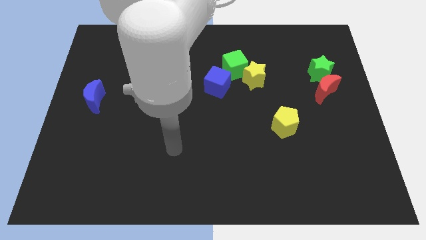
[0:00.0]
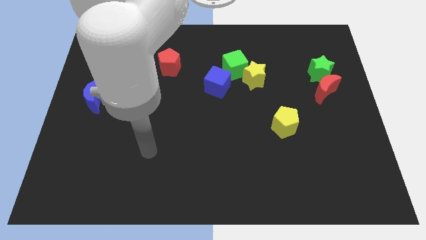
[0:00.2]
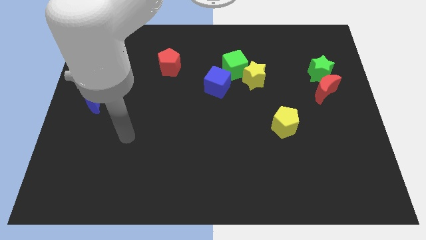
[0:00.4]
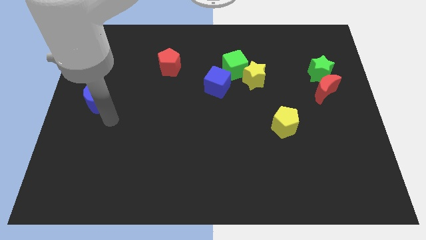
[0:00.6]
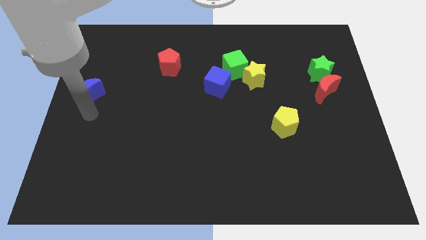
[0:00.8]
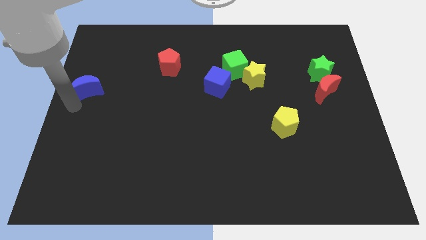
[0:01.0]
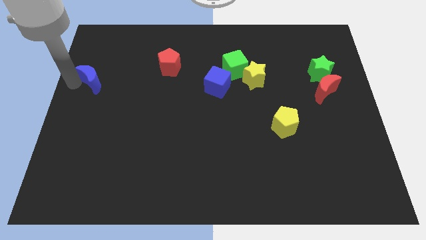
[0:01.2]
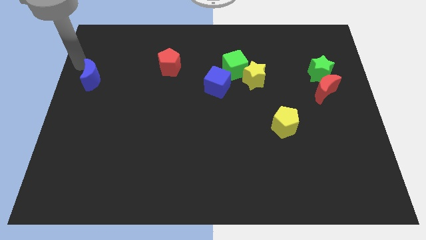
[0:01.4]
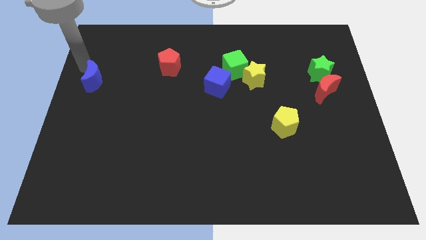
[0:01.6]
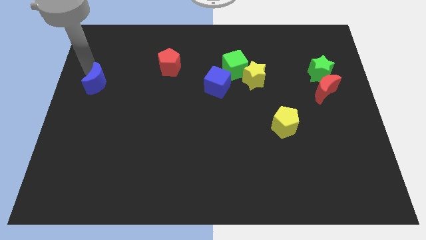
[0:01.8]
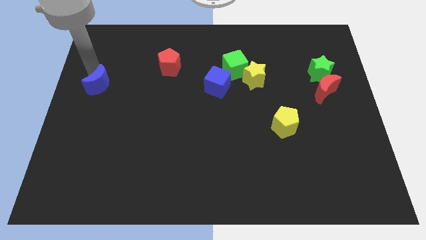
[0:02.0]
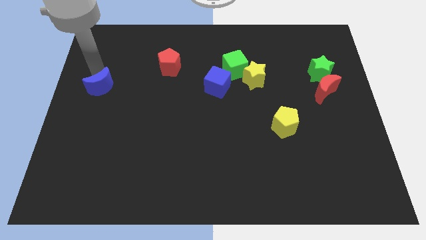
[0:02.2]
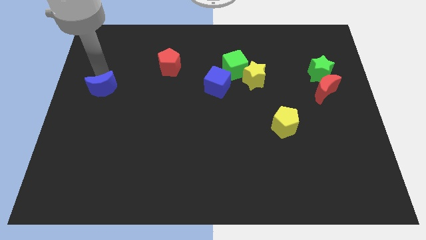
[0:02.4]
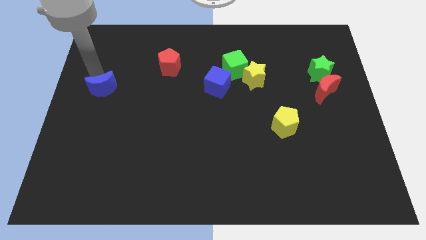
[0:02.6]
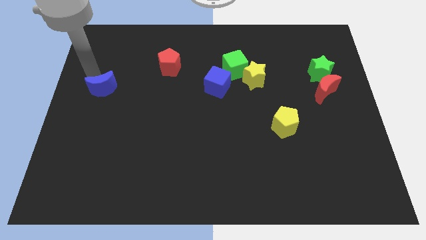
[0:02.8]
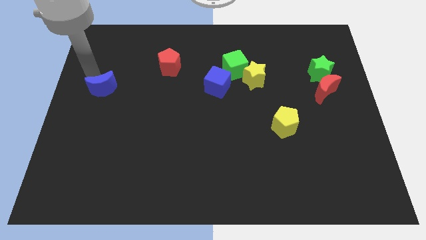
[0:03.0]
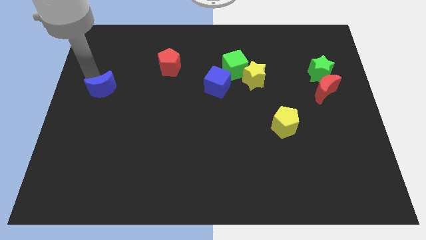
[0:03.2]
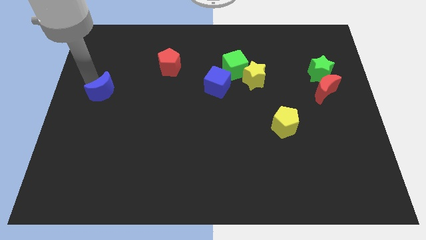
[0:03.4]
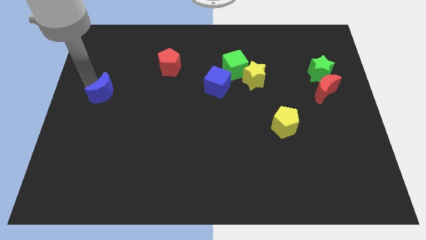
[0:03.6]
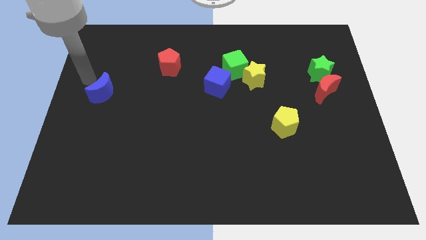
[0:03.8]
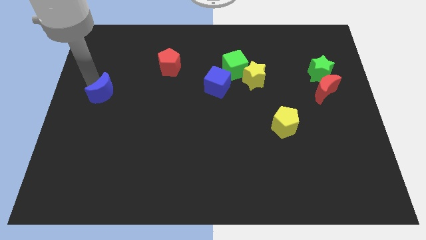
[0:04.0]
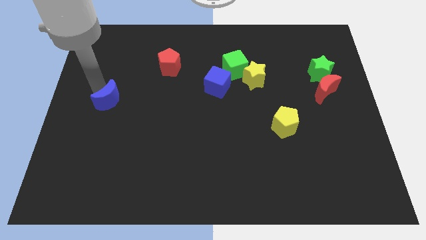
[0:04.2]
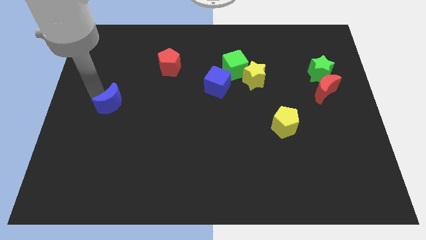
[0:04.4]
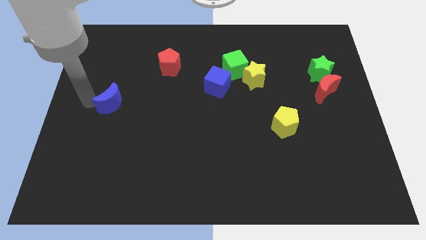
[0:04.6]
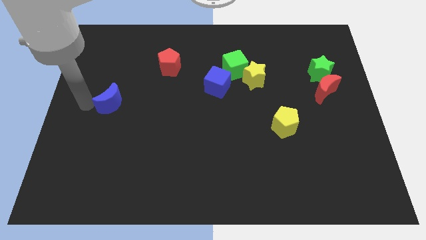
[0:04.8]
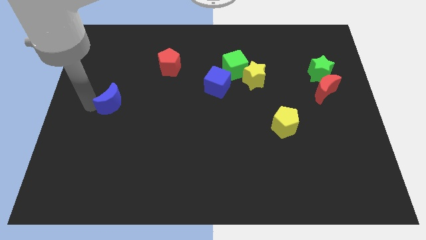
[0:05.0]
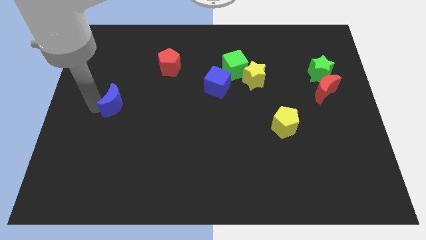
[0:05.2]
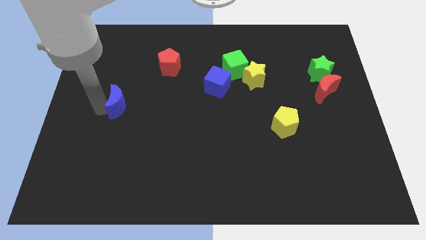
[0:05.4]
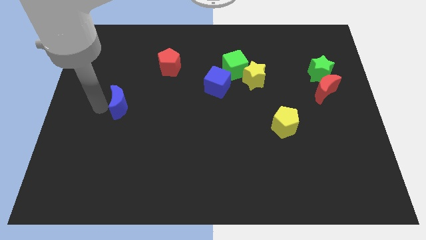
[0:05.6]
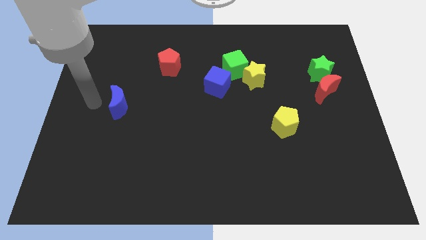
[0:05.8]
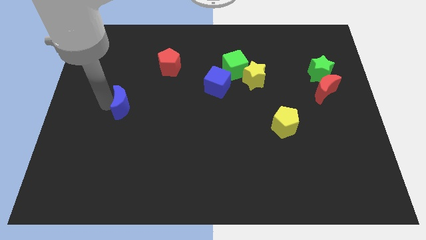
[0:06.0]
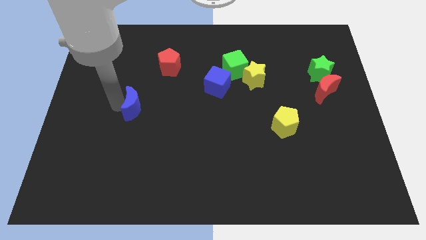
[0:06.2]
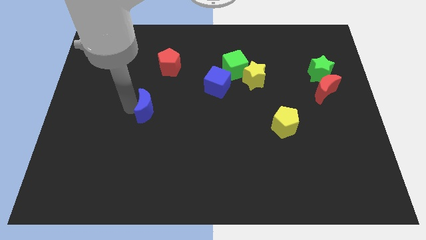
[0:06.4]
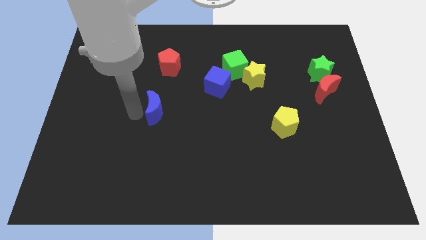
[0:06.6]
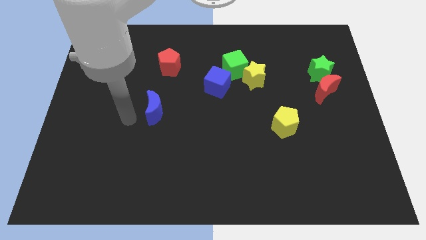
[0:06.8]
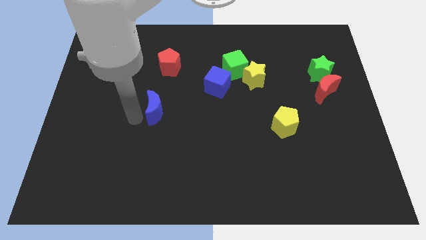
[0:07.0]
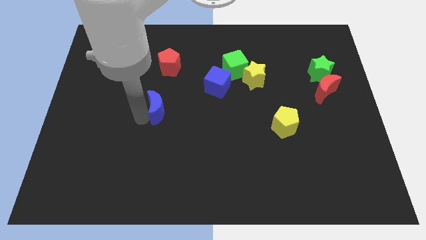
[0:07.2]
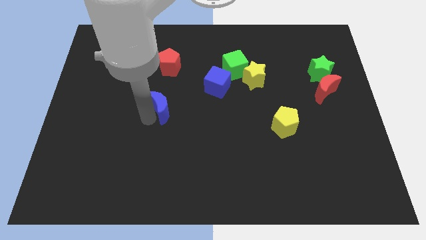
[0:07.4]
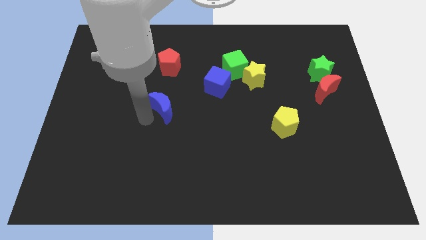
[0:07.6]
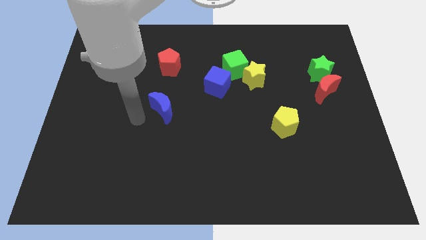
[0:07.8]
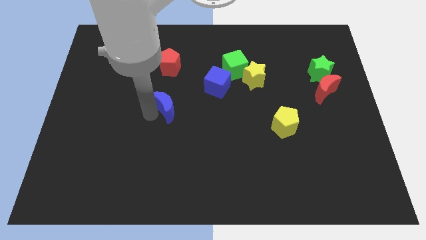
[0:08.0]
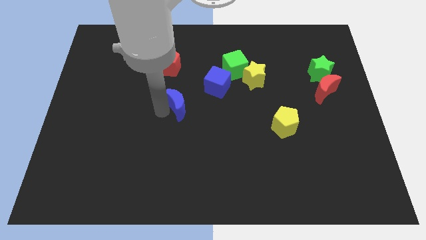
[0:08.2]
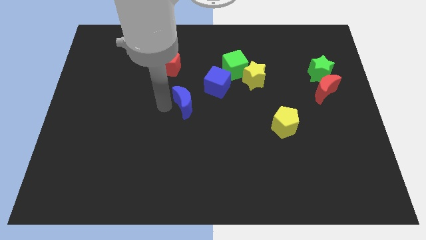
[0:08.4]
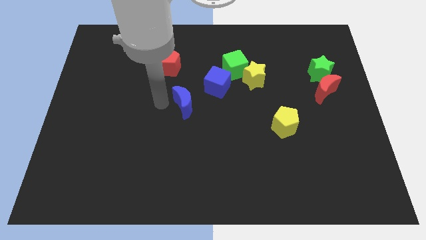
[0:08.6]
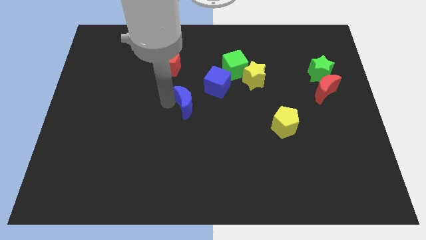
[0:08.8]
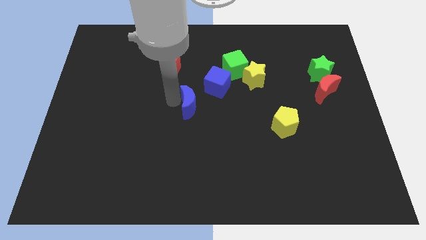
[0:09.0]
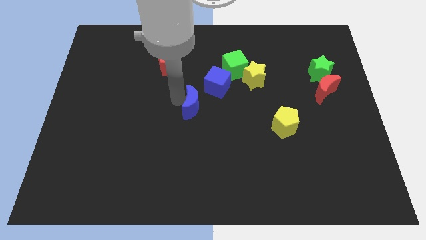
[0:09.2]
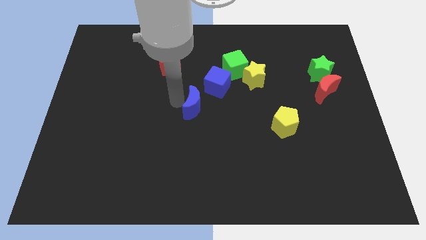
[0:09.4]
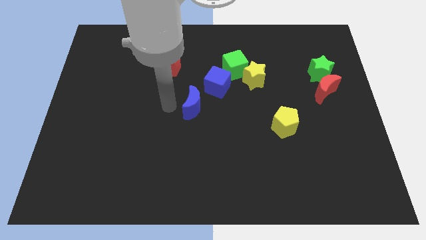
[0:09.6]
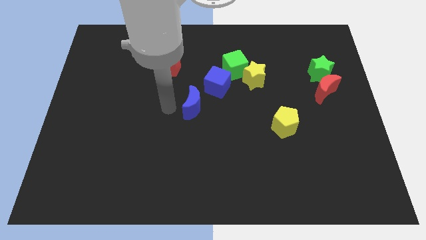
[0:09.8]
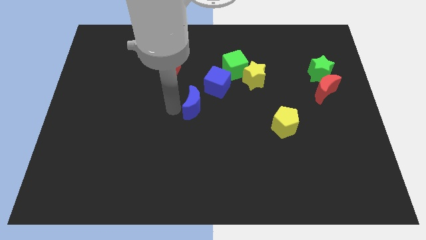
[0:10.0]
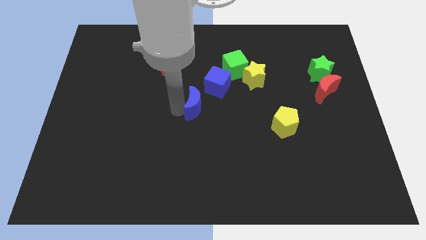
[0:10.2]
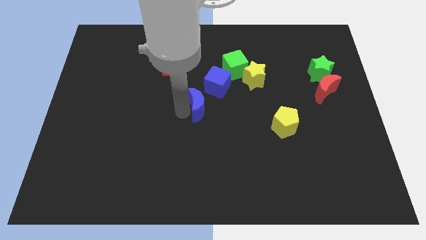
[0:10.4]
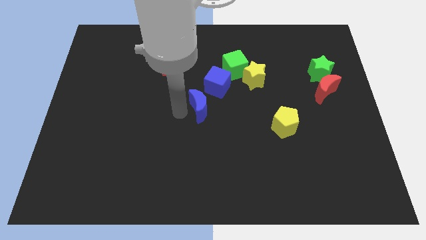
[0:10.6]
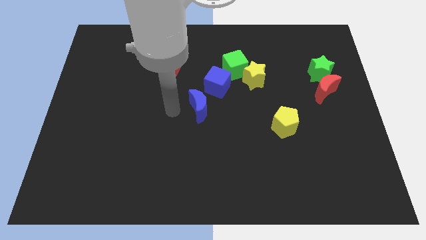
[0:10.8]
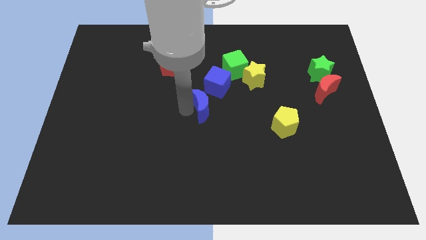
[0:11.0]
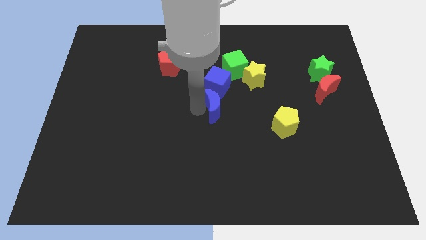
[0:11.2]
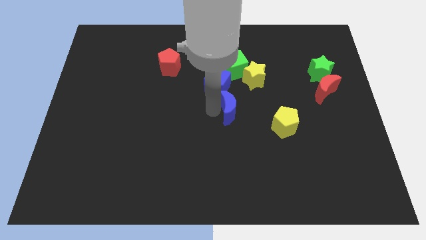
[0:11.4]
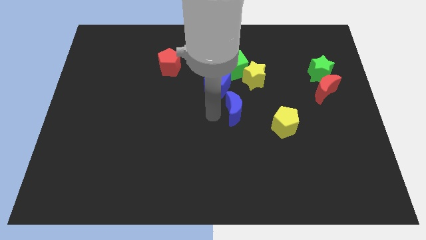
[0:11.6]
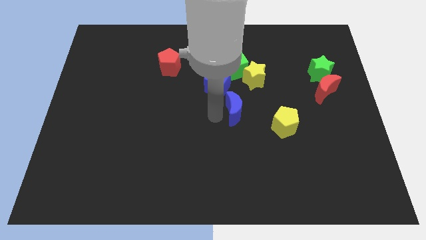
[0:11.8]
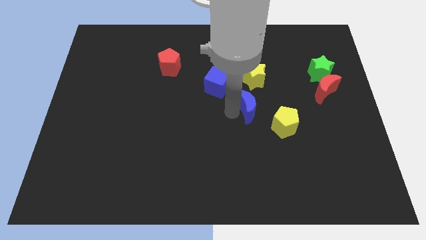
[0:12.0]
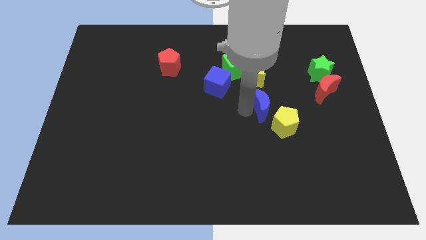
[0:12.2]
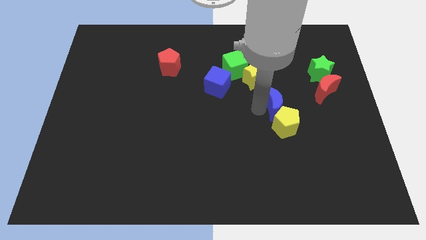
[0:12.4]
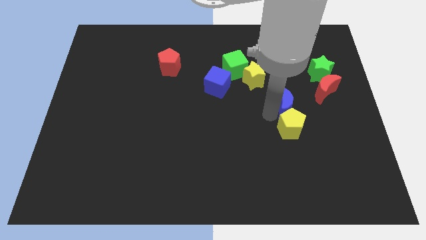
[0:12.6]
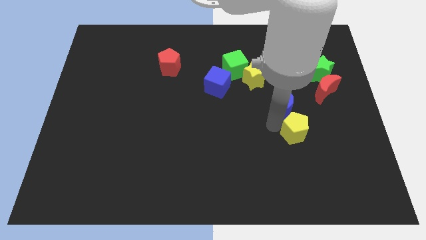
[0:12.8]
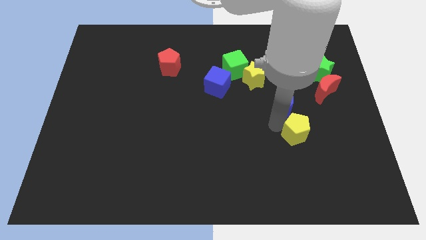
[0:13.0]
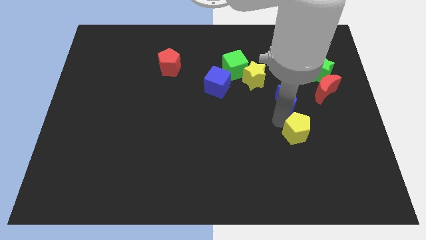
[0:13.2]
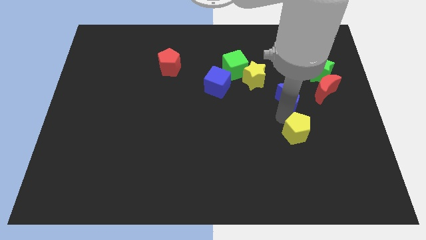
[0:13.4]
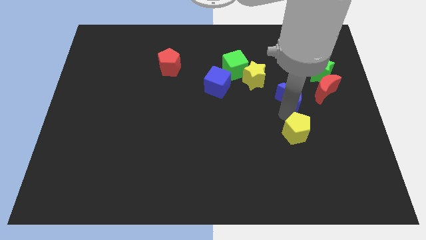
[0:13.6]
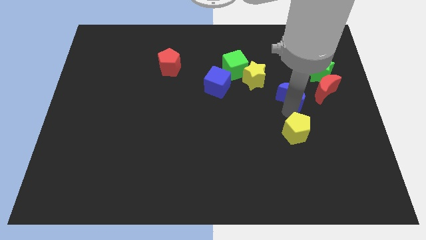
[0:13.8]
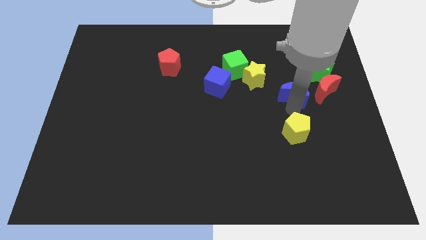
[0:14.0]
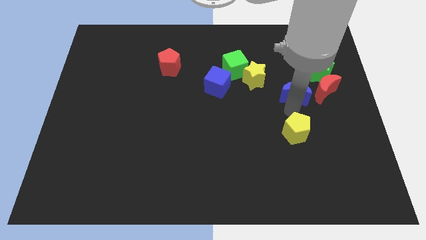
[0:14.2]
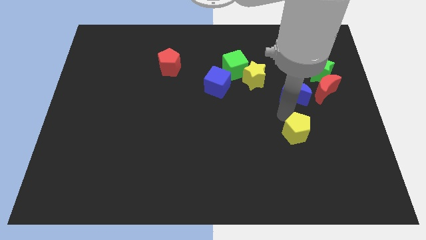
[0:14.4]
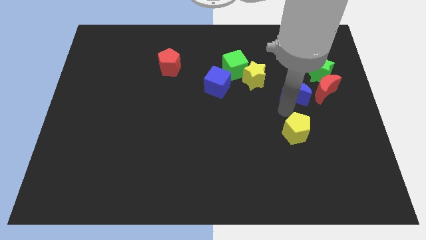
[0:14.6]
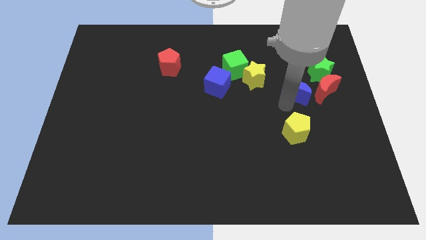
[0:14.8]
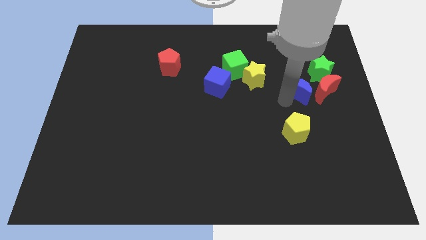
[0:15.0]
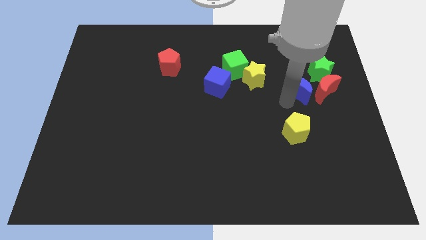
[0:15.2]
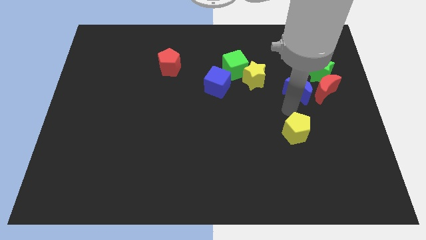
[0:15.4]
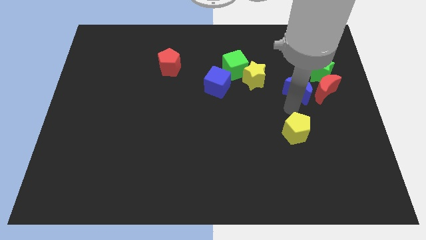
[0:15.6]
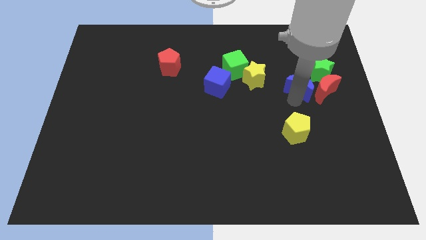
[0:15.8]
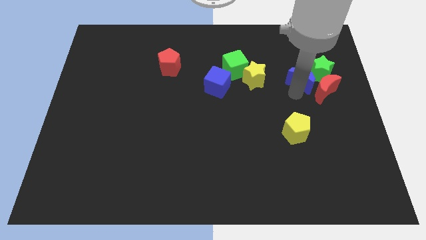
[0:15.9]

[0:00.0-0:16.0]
put the blue moon to the green star
